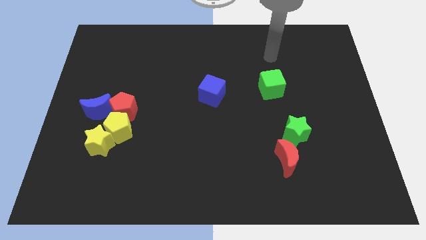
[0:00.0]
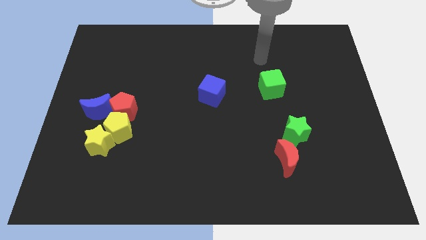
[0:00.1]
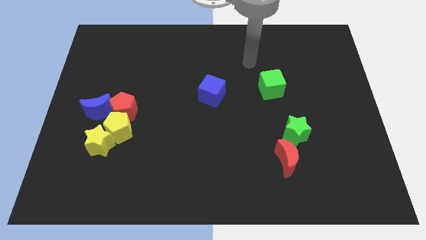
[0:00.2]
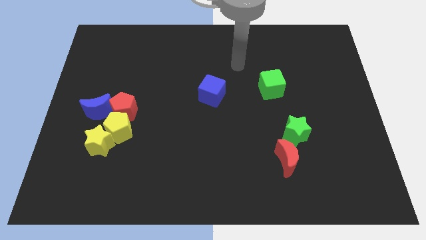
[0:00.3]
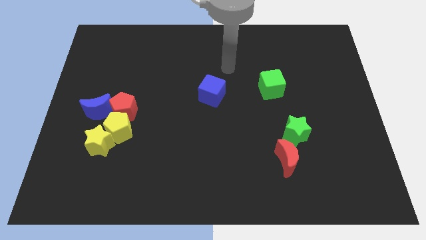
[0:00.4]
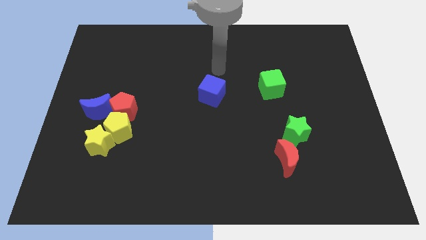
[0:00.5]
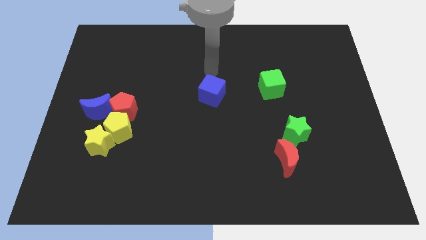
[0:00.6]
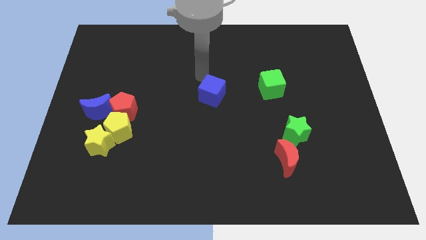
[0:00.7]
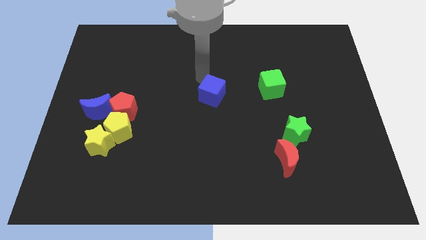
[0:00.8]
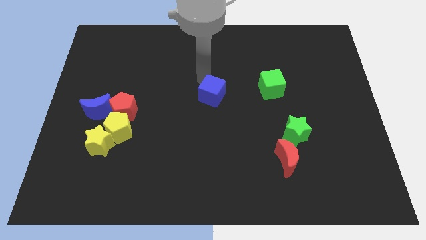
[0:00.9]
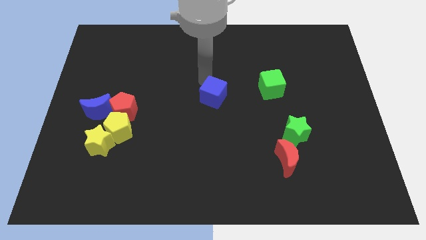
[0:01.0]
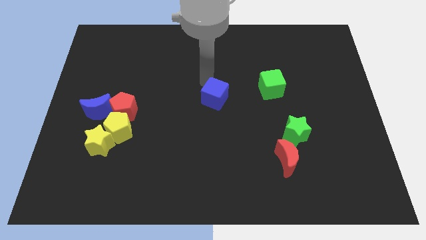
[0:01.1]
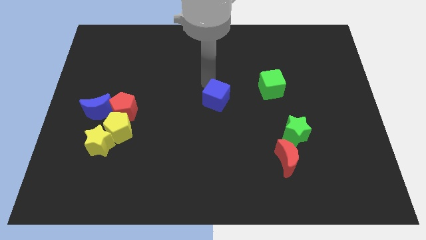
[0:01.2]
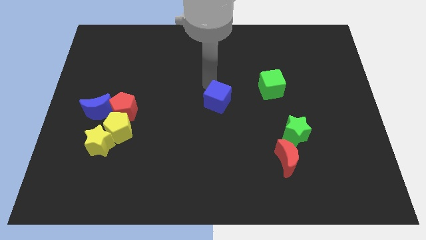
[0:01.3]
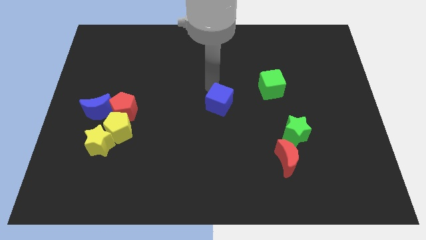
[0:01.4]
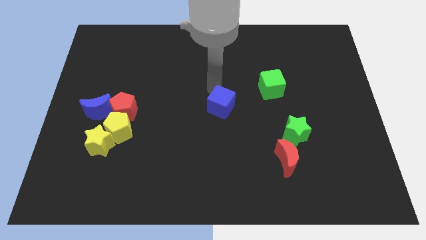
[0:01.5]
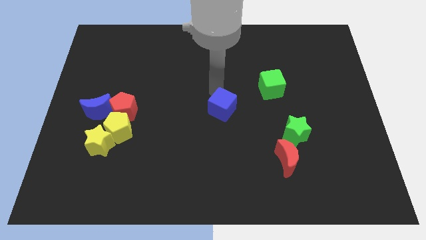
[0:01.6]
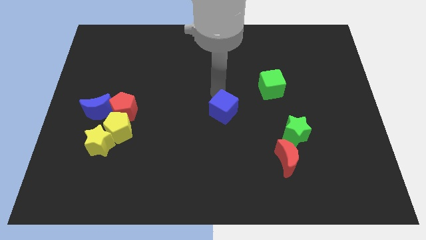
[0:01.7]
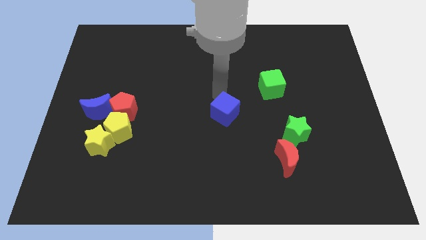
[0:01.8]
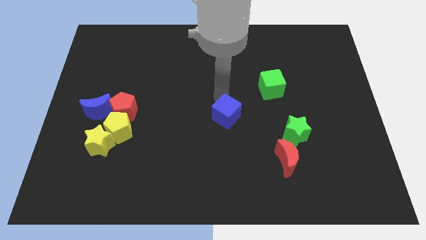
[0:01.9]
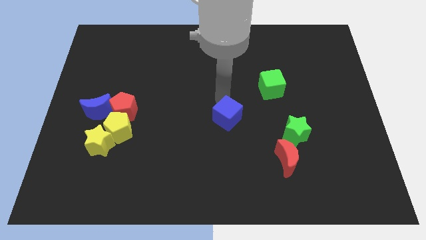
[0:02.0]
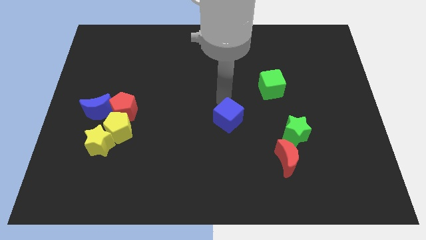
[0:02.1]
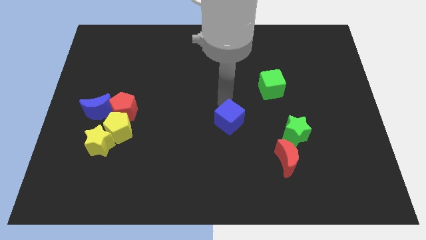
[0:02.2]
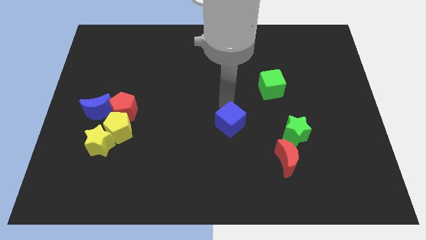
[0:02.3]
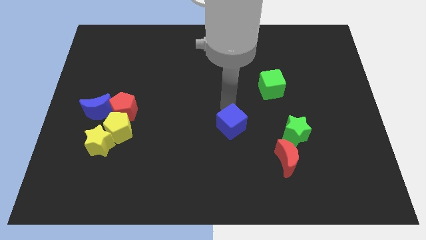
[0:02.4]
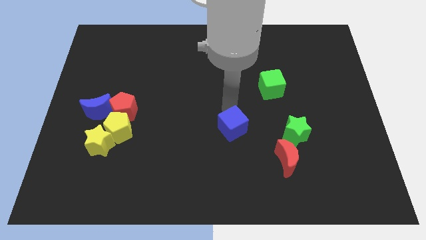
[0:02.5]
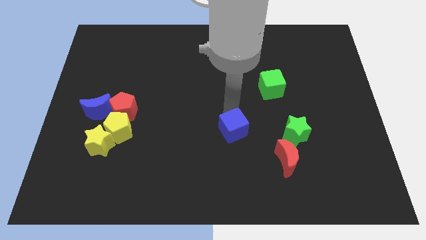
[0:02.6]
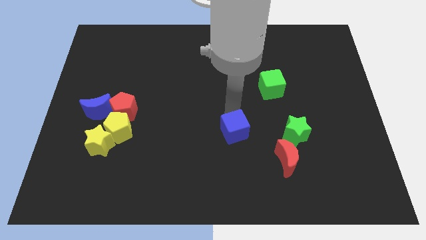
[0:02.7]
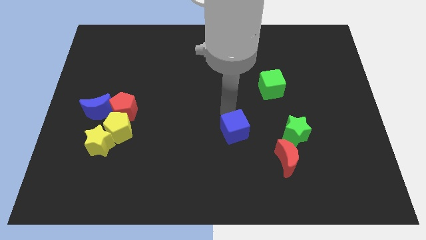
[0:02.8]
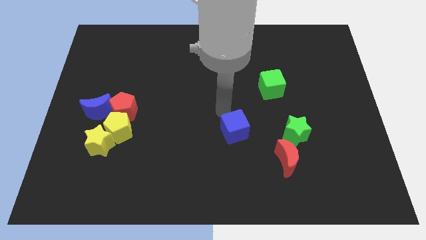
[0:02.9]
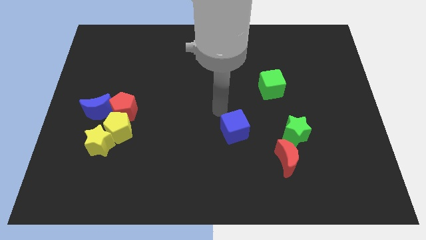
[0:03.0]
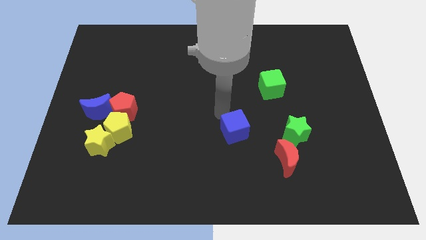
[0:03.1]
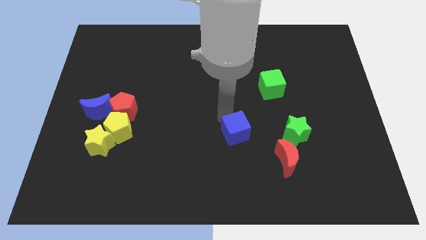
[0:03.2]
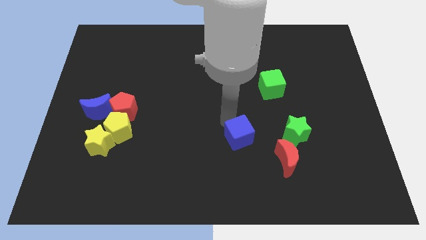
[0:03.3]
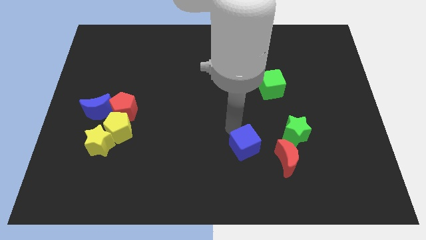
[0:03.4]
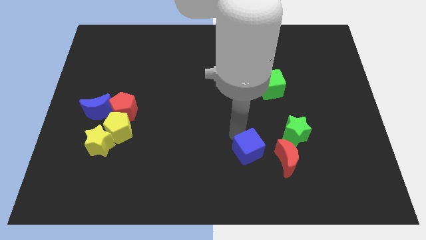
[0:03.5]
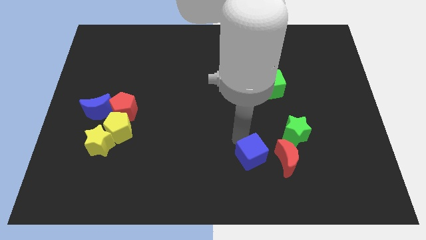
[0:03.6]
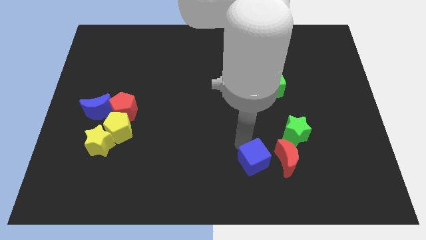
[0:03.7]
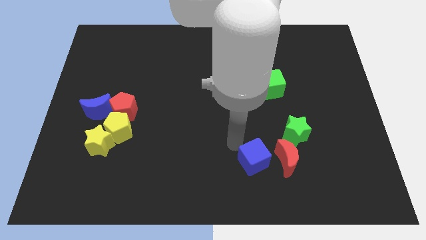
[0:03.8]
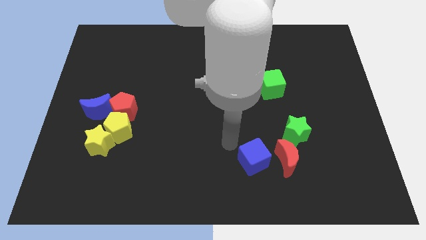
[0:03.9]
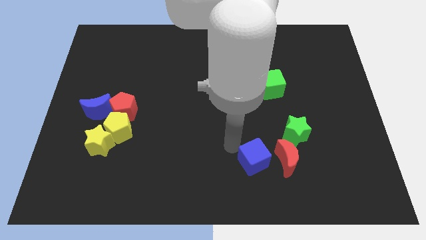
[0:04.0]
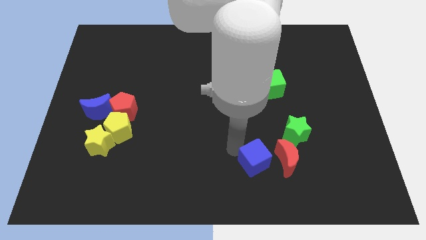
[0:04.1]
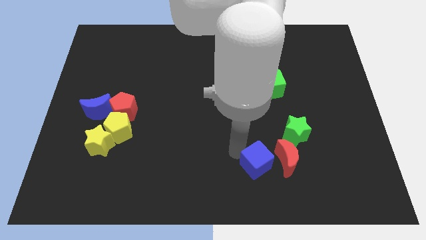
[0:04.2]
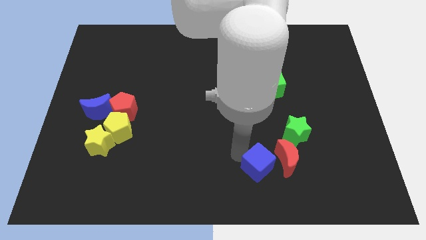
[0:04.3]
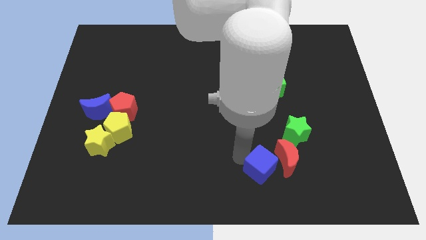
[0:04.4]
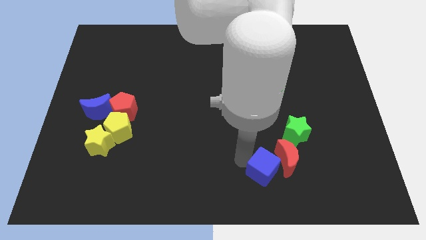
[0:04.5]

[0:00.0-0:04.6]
slide the blue cube diagonally downwards and to the right

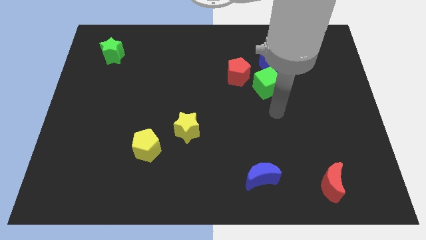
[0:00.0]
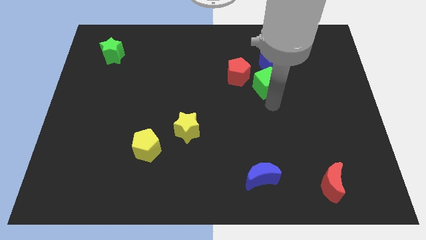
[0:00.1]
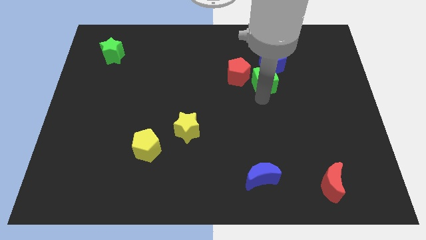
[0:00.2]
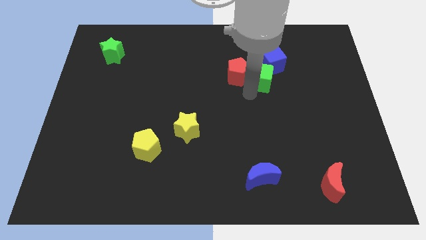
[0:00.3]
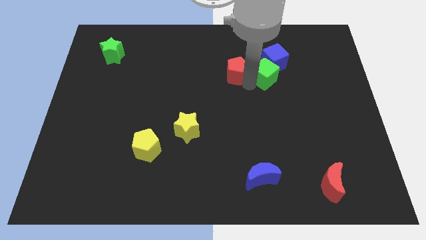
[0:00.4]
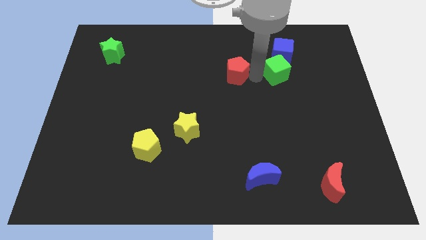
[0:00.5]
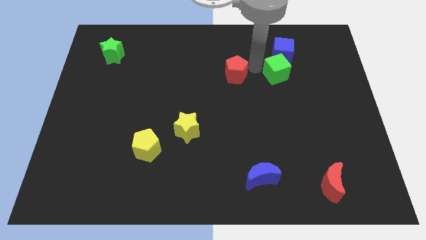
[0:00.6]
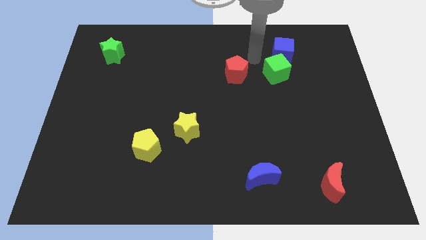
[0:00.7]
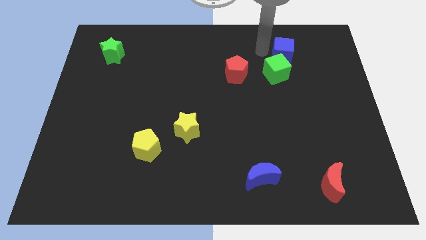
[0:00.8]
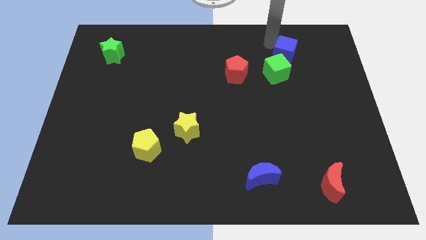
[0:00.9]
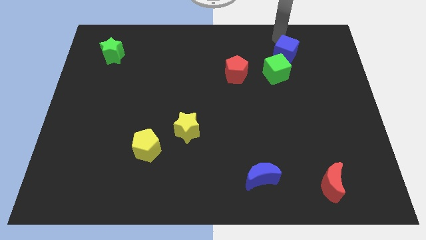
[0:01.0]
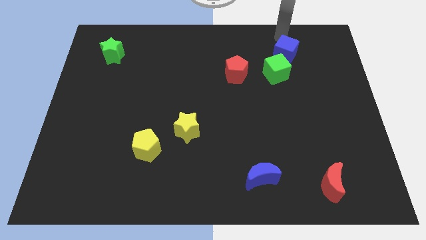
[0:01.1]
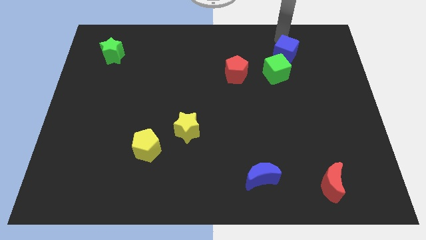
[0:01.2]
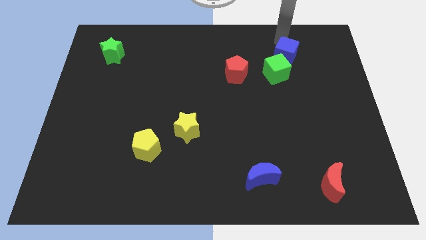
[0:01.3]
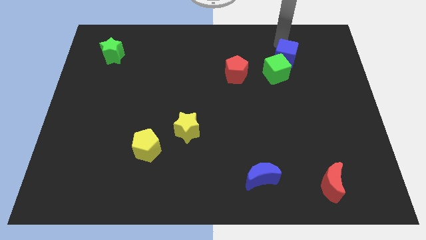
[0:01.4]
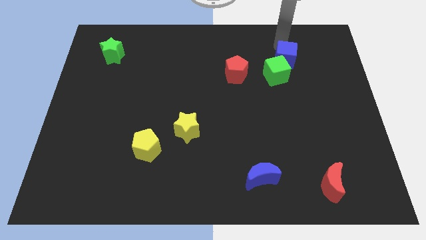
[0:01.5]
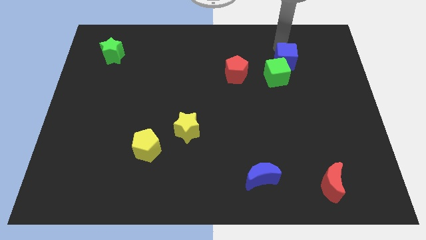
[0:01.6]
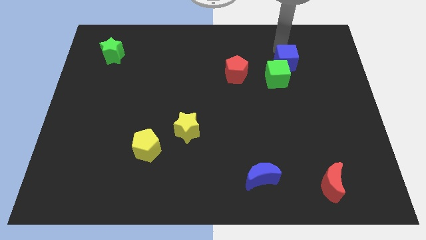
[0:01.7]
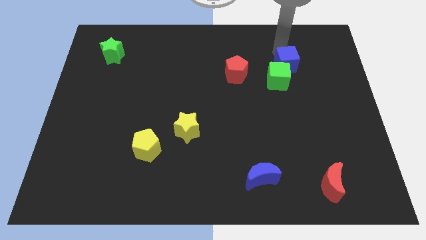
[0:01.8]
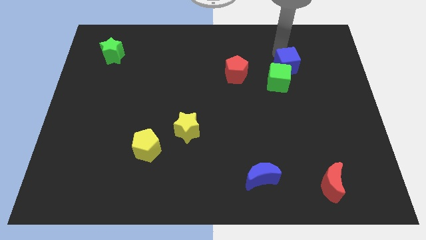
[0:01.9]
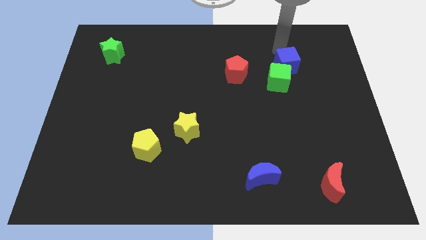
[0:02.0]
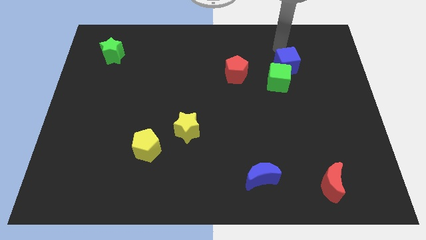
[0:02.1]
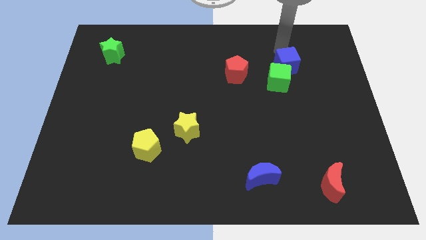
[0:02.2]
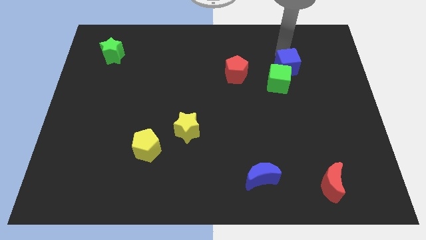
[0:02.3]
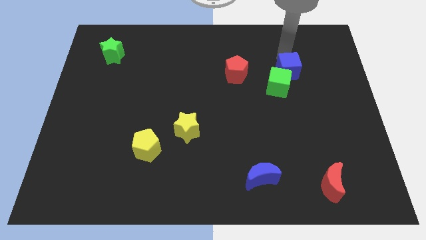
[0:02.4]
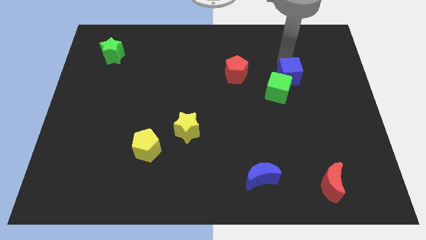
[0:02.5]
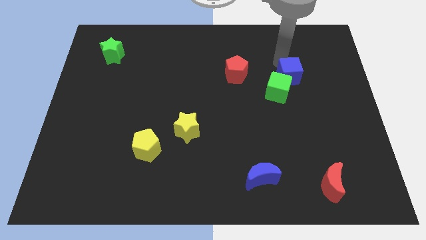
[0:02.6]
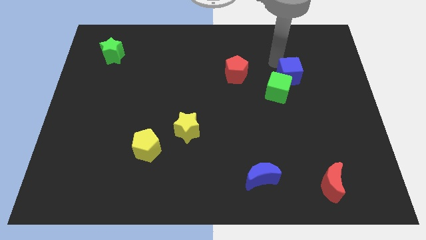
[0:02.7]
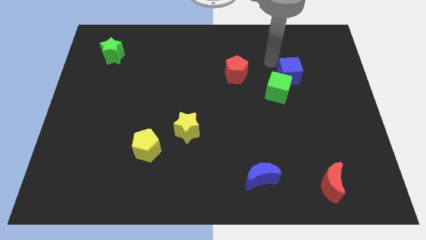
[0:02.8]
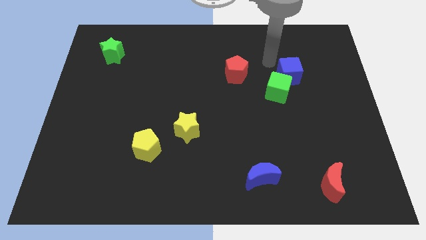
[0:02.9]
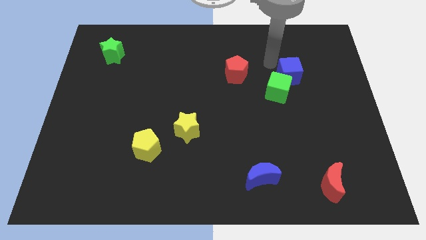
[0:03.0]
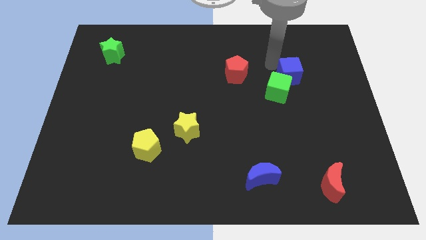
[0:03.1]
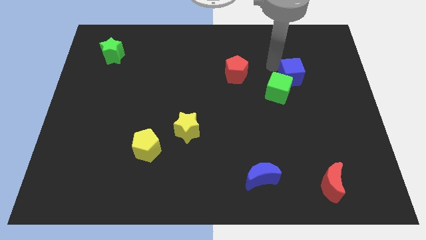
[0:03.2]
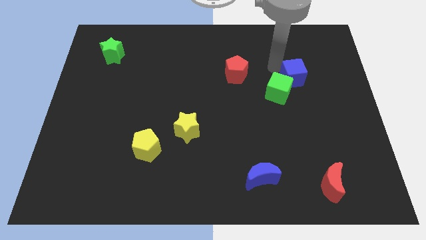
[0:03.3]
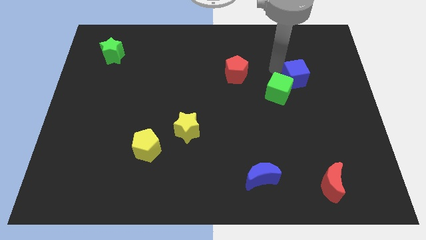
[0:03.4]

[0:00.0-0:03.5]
move the blue cube somewhat down and to the right diagonally
